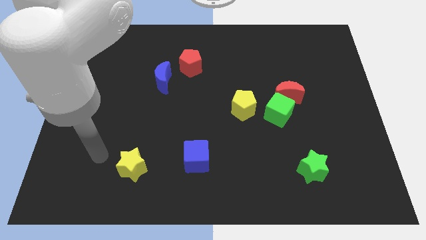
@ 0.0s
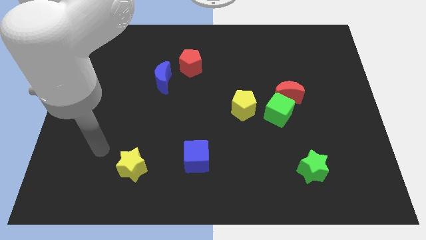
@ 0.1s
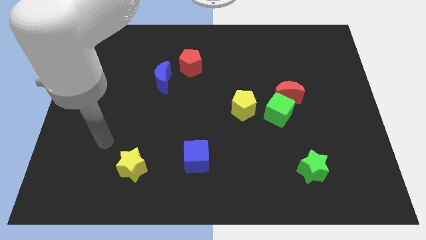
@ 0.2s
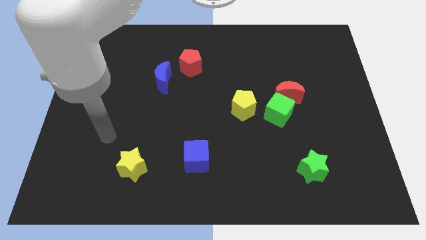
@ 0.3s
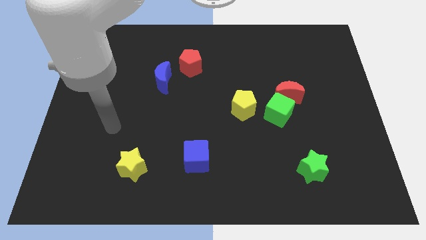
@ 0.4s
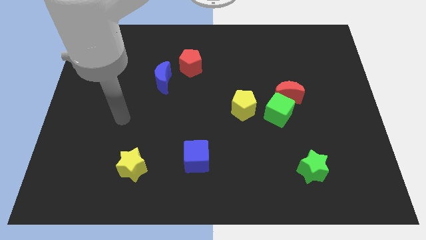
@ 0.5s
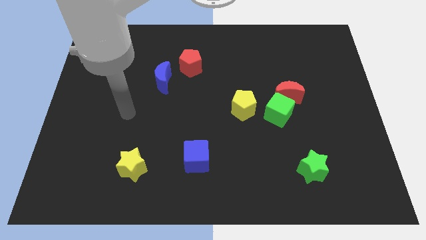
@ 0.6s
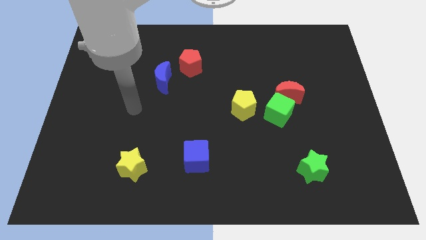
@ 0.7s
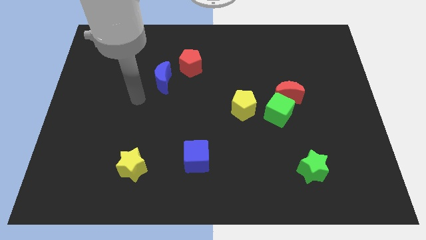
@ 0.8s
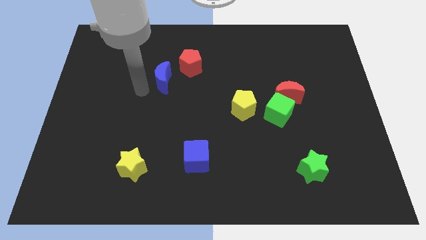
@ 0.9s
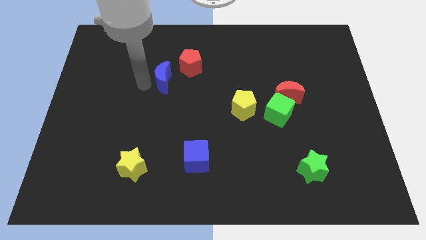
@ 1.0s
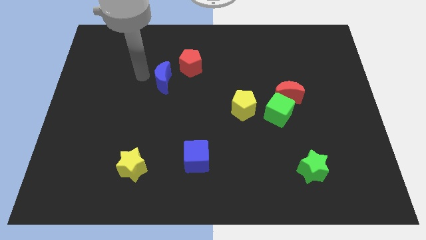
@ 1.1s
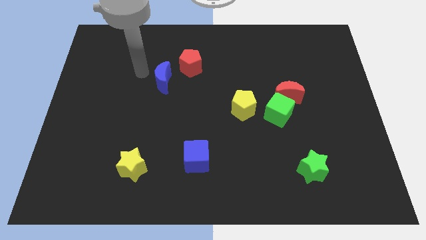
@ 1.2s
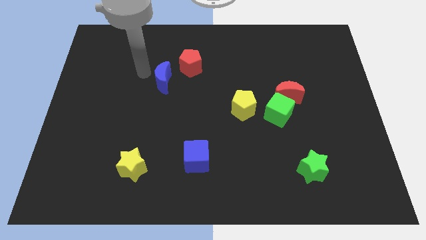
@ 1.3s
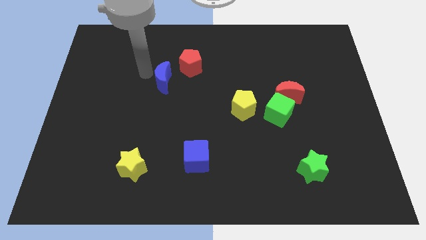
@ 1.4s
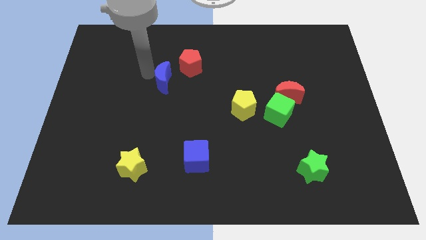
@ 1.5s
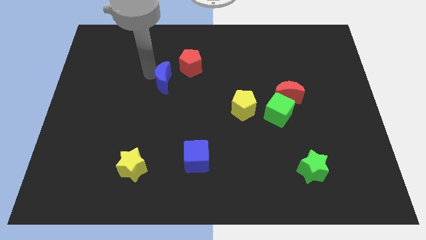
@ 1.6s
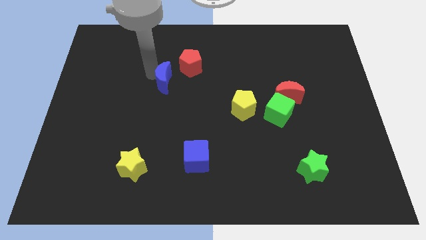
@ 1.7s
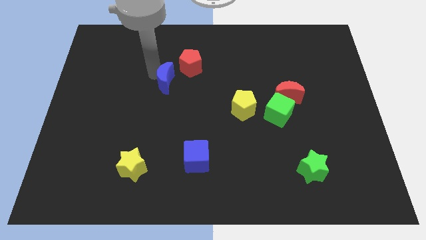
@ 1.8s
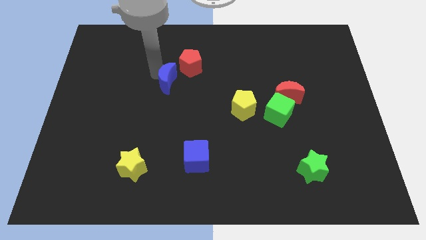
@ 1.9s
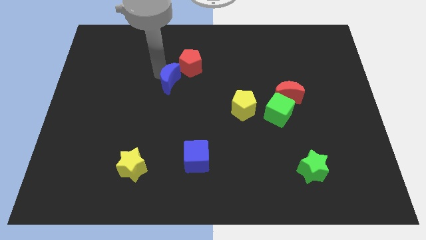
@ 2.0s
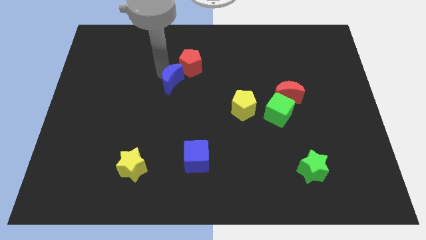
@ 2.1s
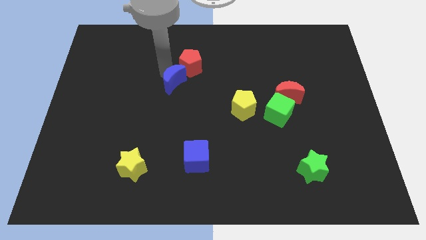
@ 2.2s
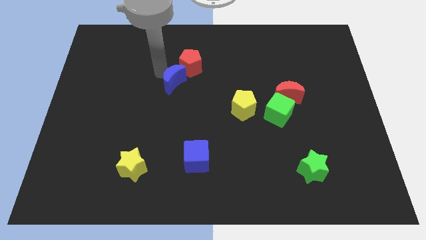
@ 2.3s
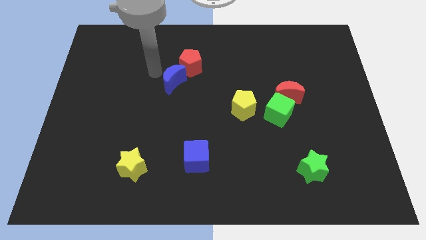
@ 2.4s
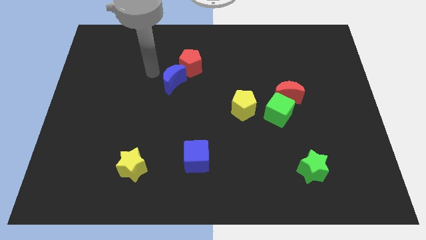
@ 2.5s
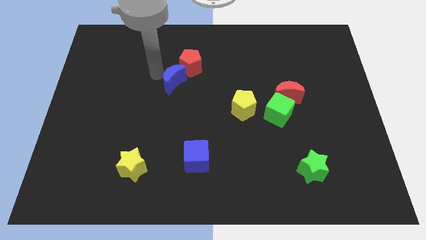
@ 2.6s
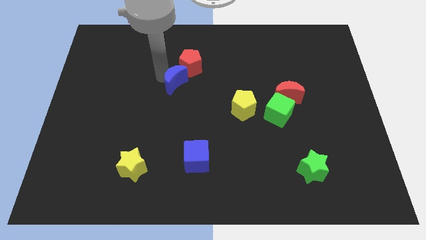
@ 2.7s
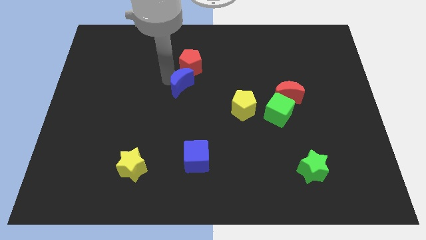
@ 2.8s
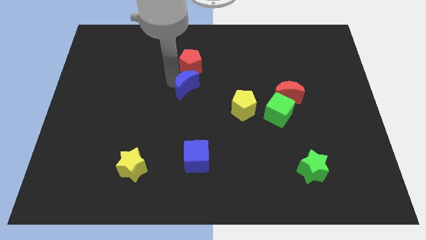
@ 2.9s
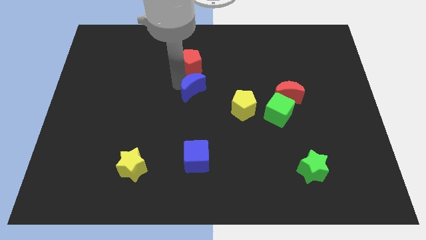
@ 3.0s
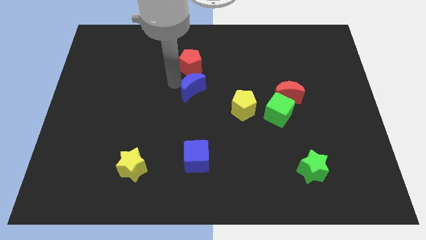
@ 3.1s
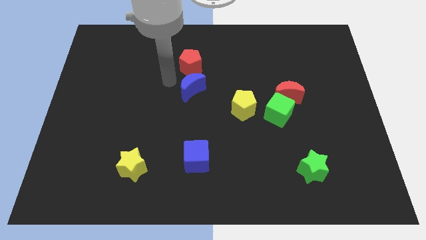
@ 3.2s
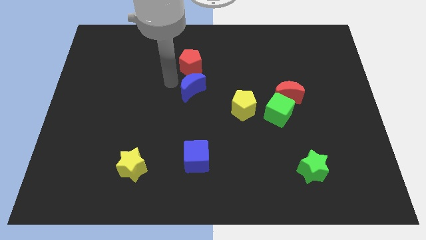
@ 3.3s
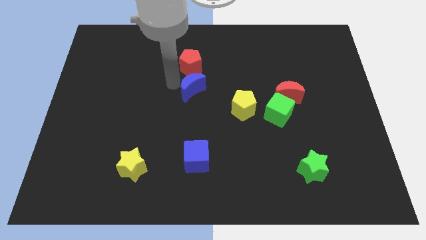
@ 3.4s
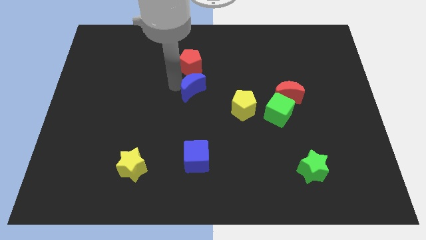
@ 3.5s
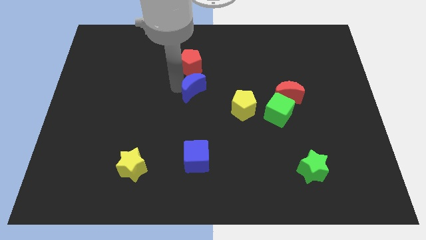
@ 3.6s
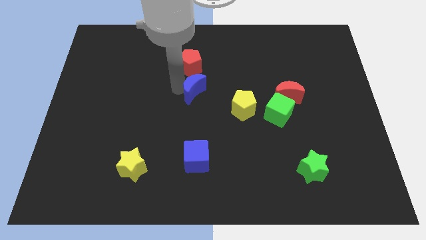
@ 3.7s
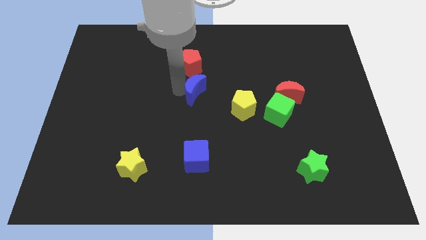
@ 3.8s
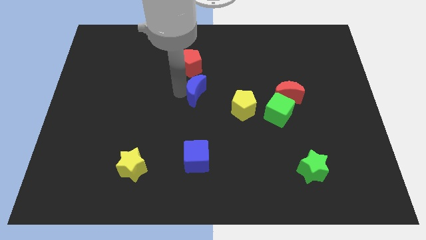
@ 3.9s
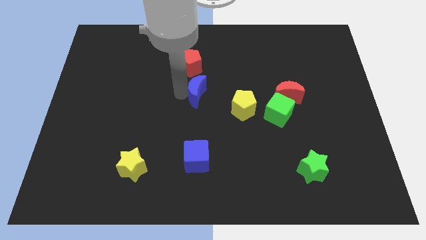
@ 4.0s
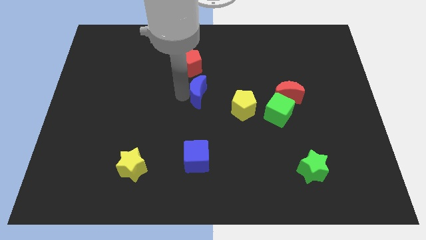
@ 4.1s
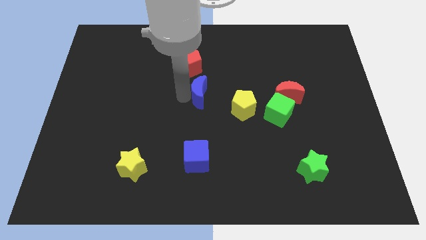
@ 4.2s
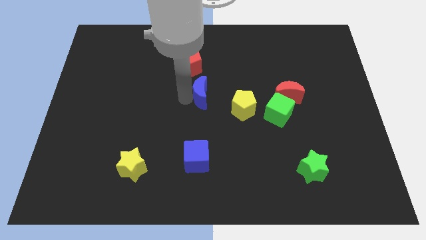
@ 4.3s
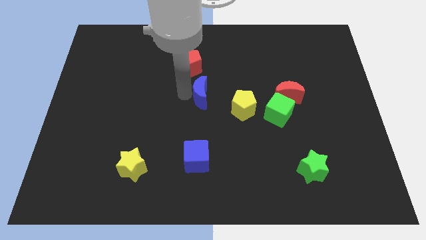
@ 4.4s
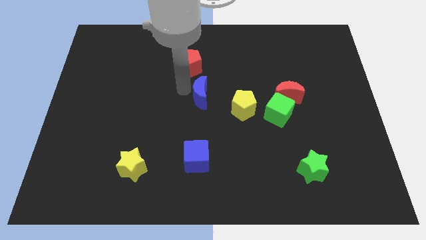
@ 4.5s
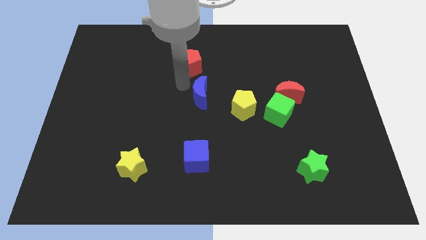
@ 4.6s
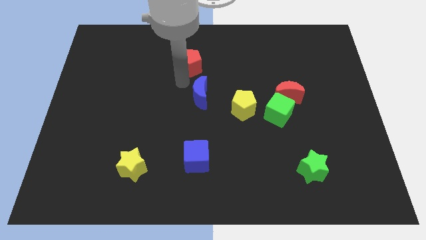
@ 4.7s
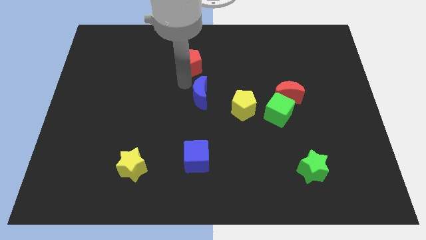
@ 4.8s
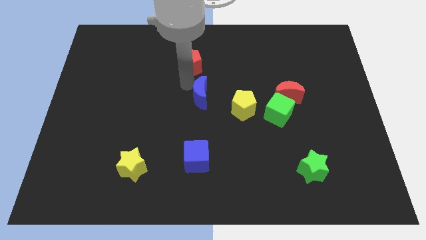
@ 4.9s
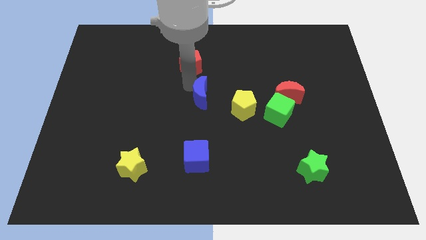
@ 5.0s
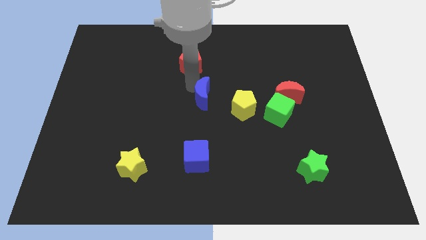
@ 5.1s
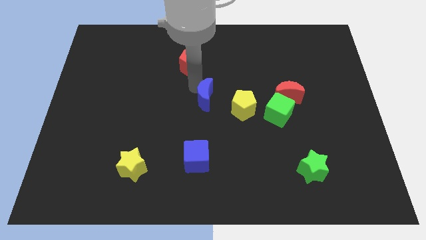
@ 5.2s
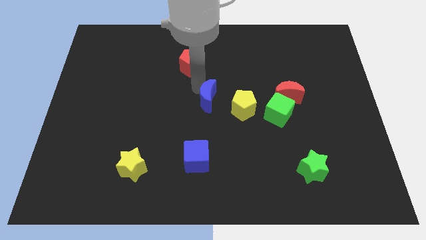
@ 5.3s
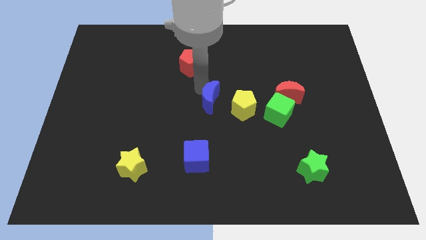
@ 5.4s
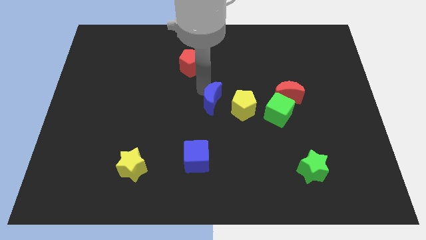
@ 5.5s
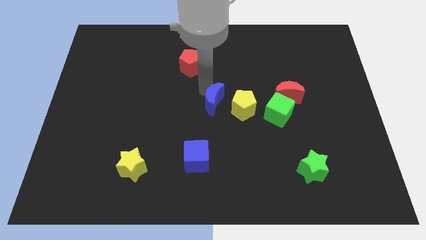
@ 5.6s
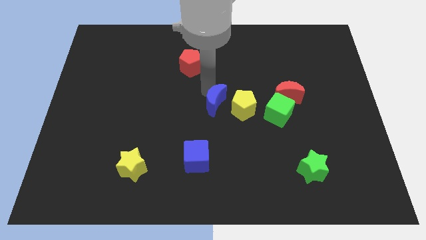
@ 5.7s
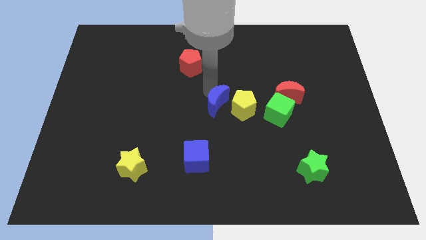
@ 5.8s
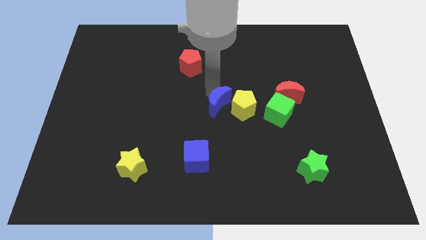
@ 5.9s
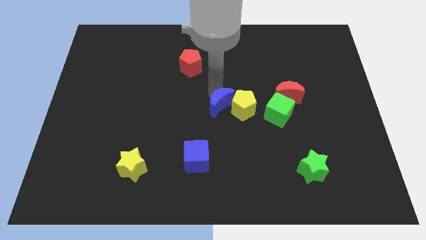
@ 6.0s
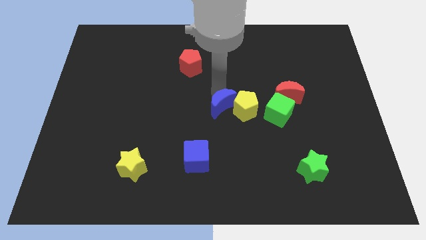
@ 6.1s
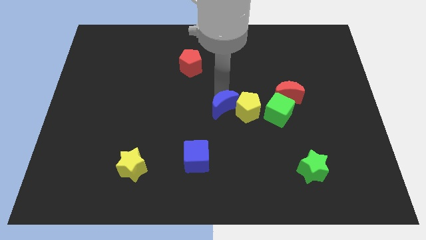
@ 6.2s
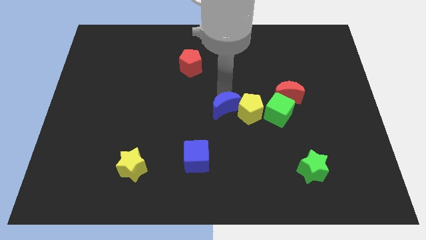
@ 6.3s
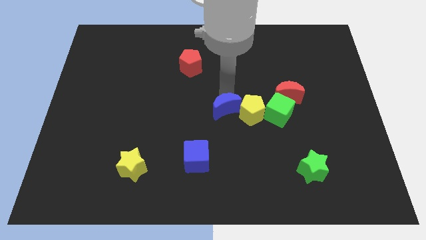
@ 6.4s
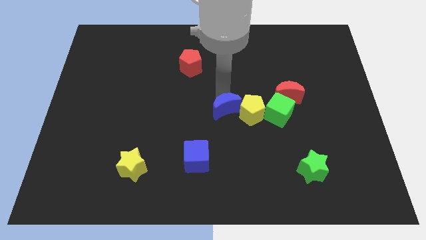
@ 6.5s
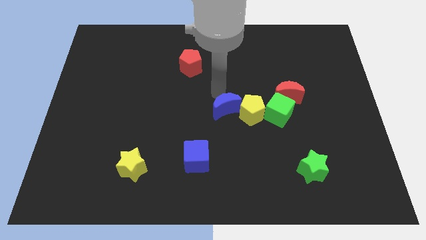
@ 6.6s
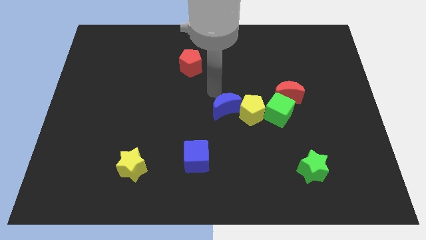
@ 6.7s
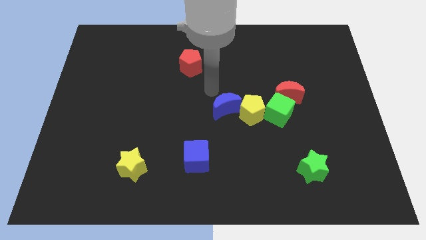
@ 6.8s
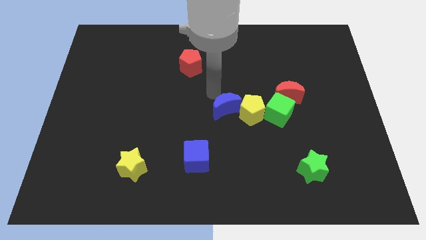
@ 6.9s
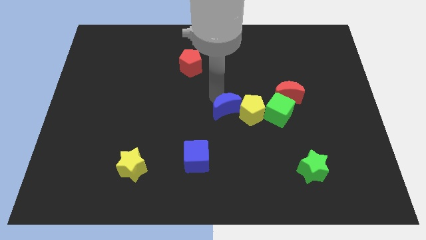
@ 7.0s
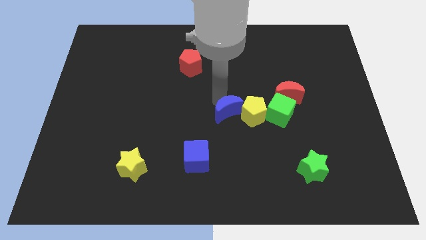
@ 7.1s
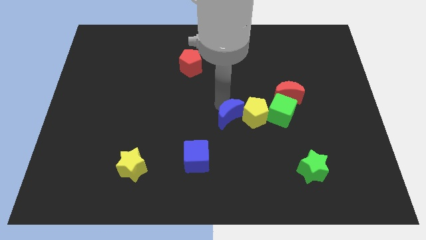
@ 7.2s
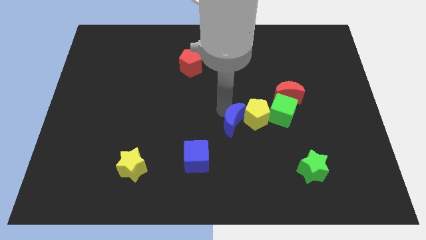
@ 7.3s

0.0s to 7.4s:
push the blue moon diagonally downwards and right

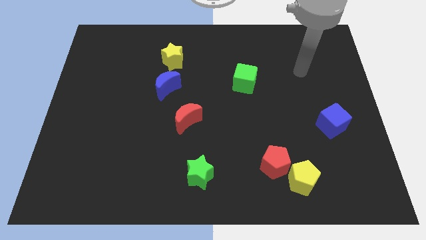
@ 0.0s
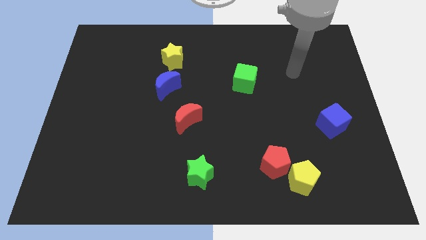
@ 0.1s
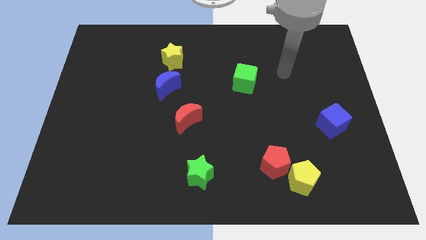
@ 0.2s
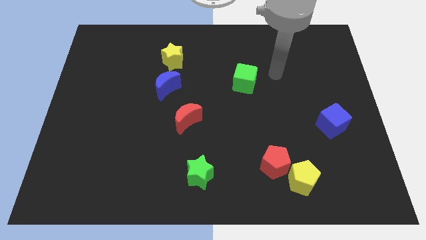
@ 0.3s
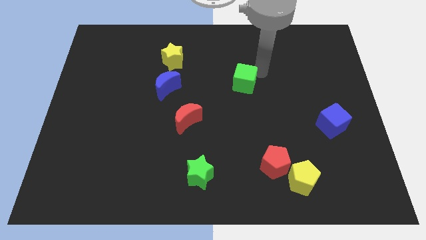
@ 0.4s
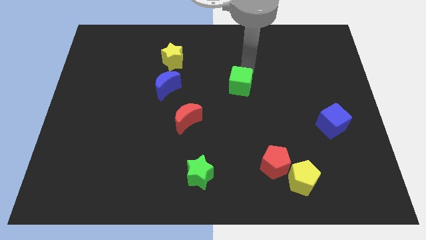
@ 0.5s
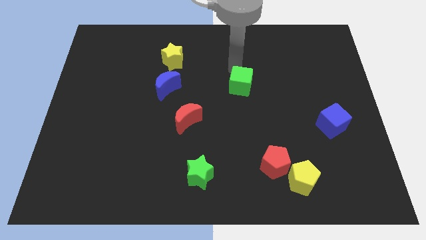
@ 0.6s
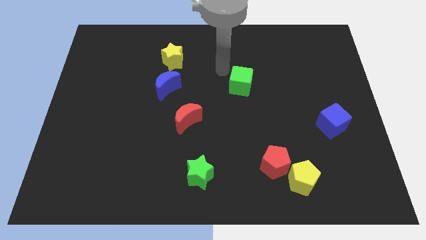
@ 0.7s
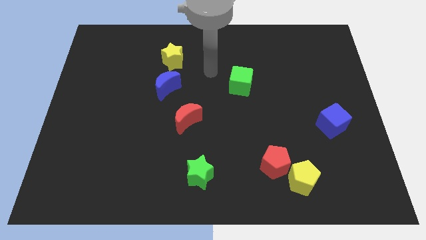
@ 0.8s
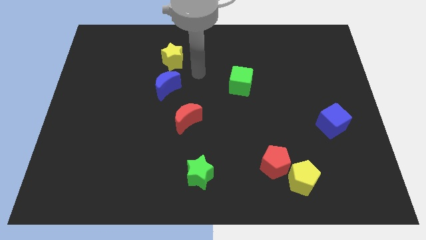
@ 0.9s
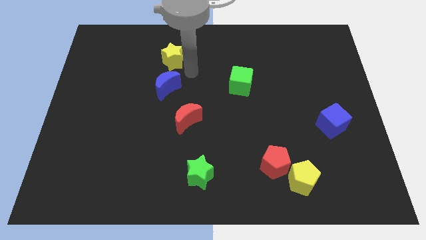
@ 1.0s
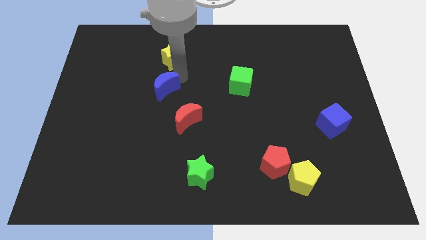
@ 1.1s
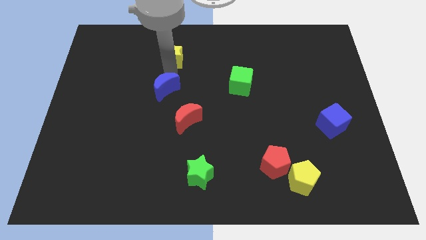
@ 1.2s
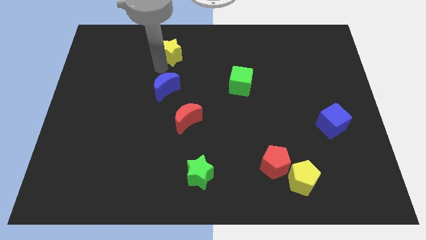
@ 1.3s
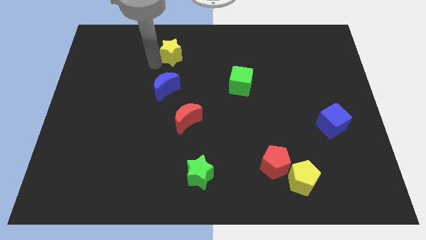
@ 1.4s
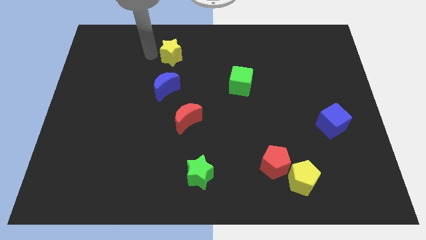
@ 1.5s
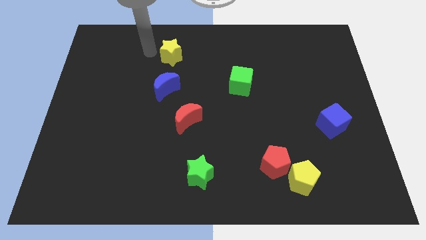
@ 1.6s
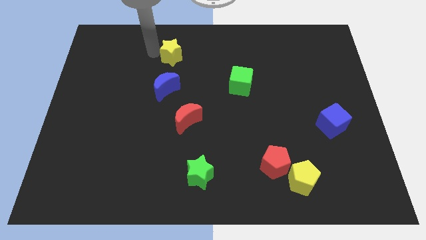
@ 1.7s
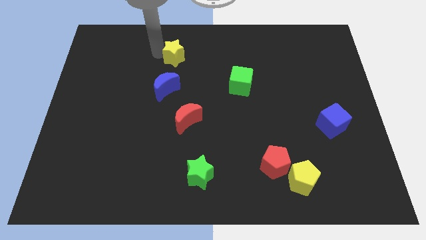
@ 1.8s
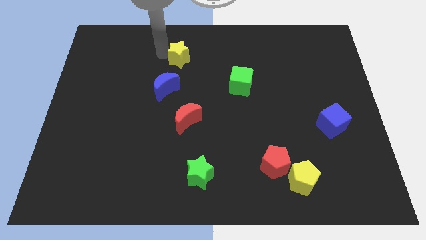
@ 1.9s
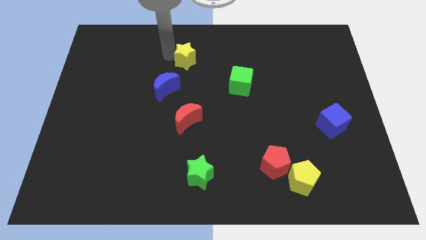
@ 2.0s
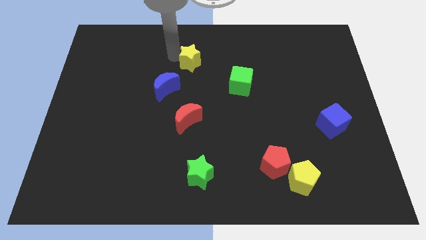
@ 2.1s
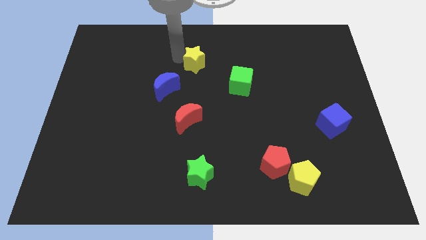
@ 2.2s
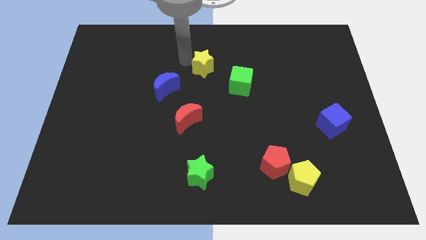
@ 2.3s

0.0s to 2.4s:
slightly move the yellow star right
